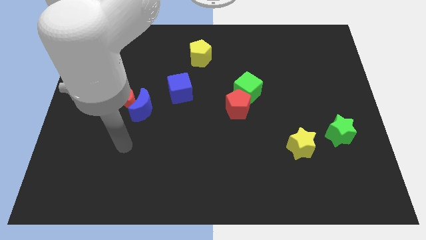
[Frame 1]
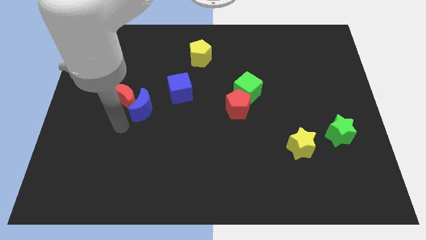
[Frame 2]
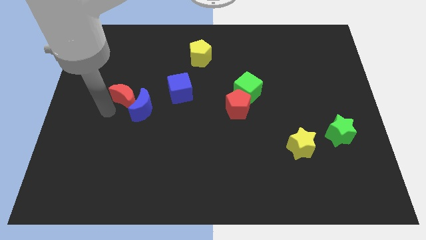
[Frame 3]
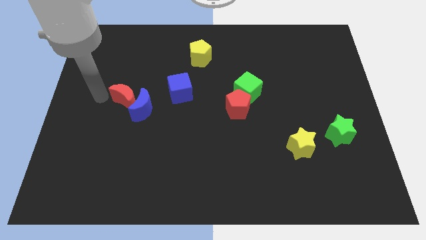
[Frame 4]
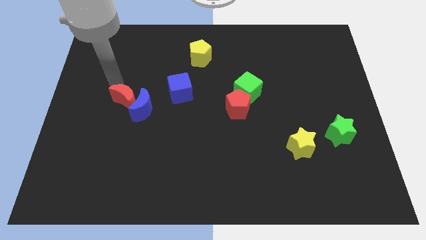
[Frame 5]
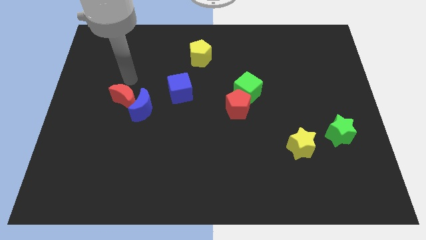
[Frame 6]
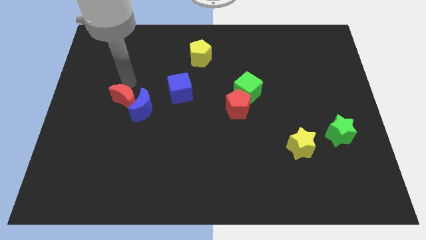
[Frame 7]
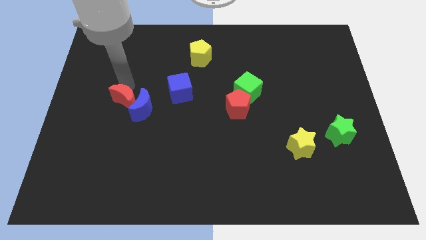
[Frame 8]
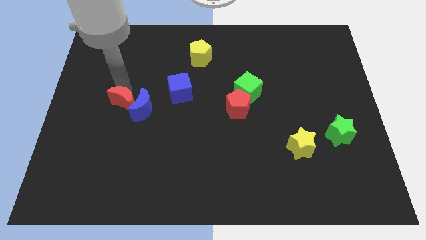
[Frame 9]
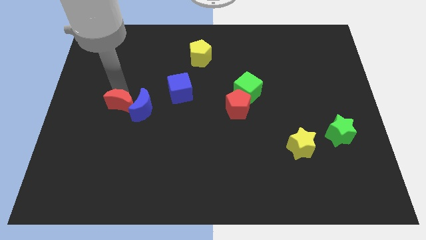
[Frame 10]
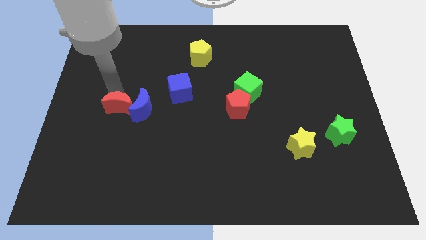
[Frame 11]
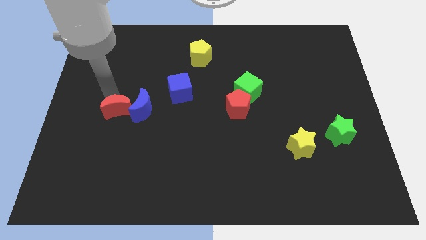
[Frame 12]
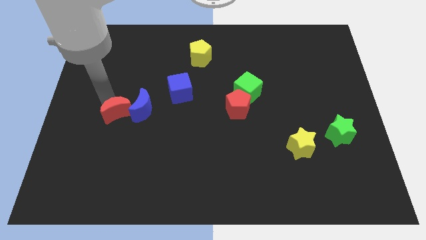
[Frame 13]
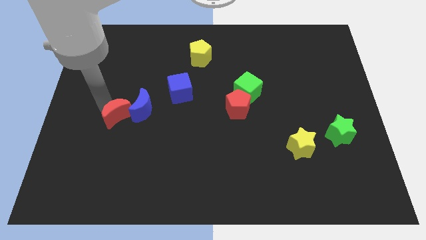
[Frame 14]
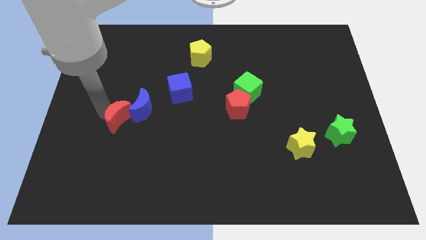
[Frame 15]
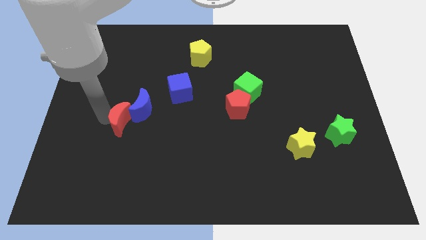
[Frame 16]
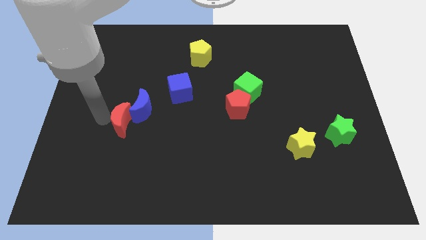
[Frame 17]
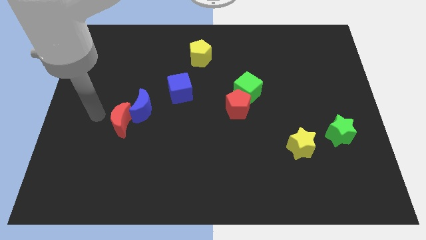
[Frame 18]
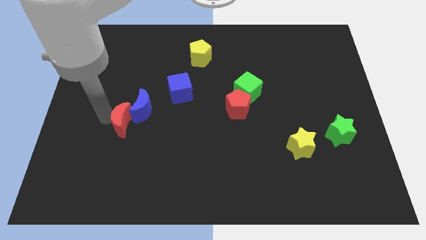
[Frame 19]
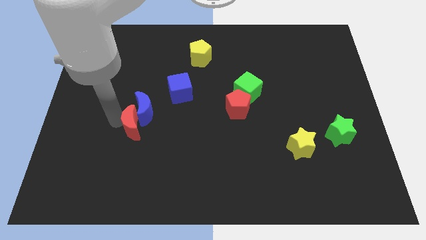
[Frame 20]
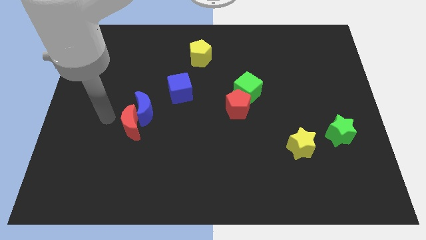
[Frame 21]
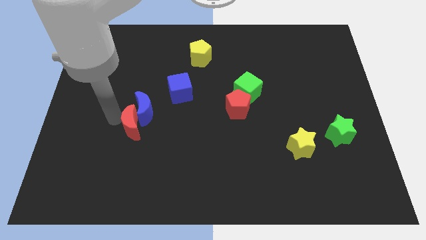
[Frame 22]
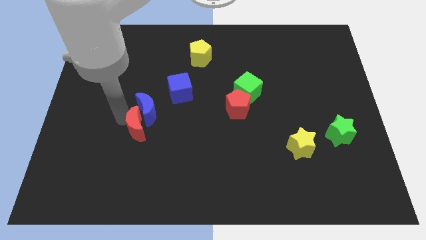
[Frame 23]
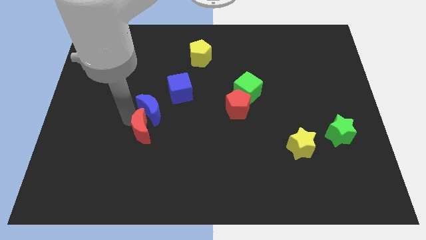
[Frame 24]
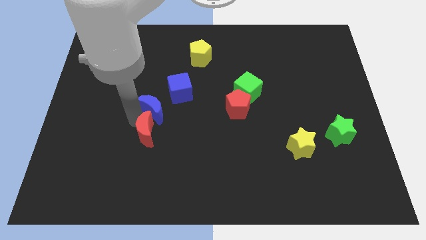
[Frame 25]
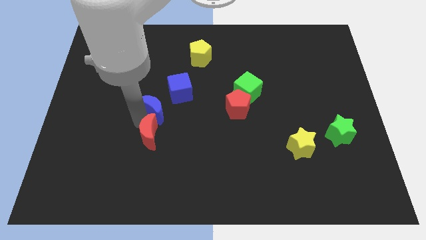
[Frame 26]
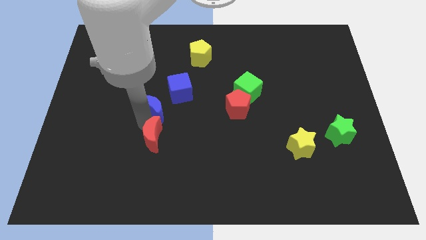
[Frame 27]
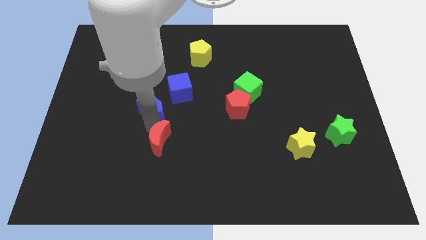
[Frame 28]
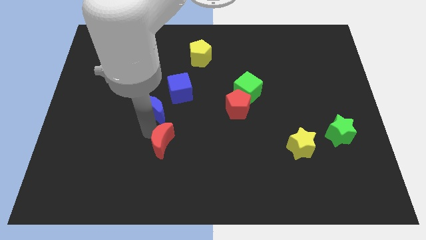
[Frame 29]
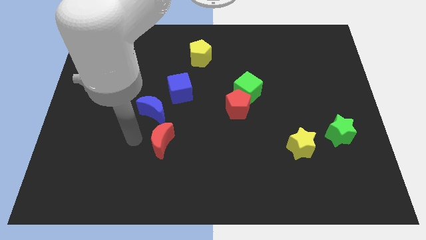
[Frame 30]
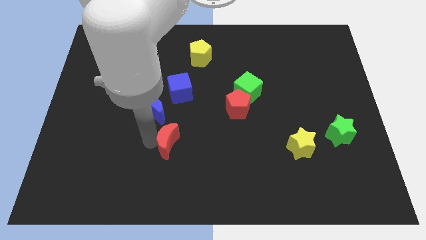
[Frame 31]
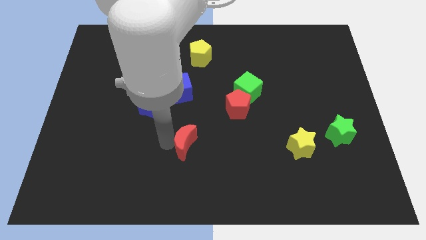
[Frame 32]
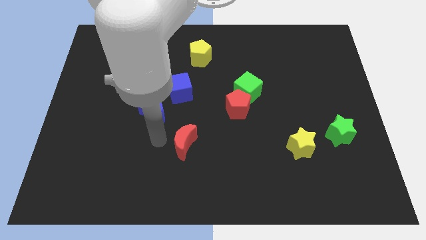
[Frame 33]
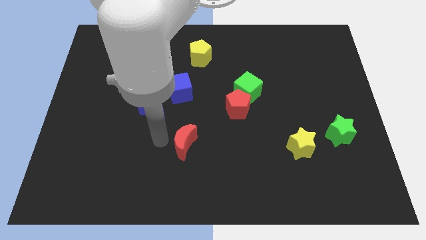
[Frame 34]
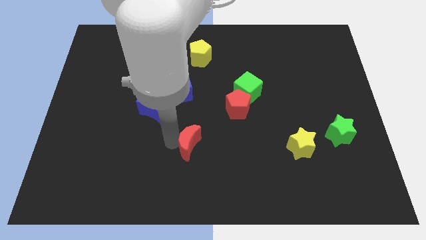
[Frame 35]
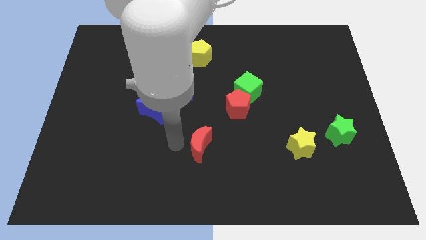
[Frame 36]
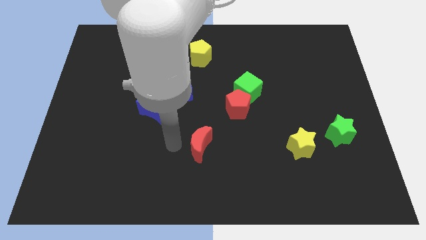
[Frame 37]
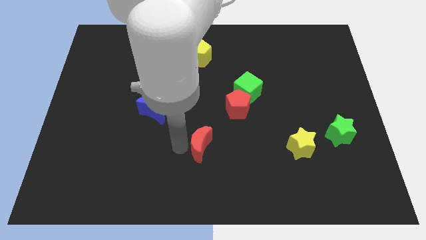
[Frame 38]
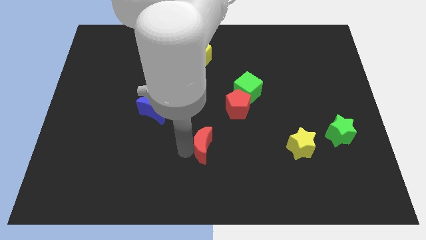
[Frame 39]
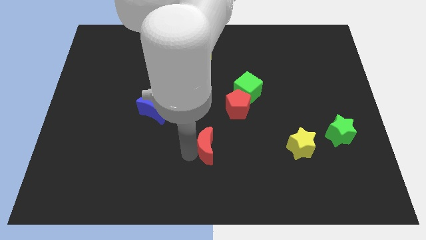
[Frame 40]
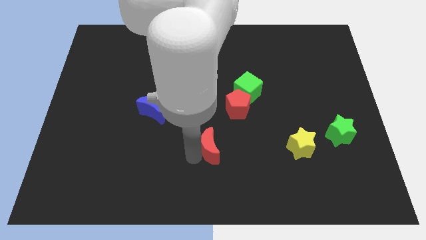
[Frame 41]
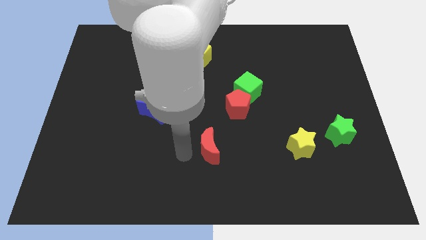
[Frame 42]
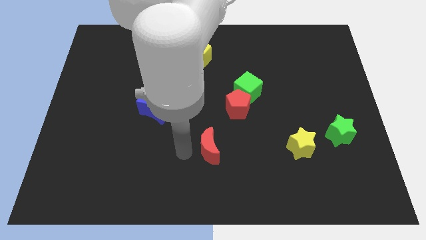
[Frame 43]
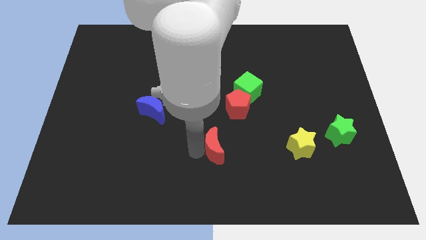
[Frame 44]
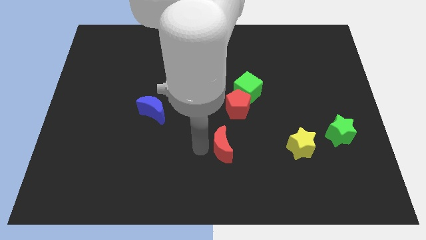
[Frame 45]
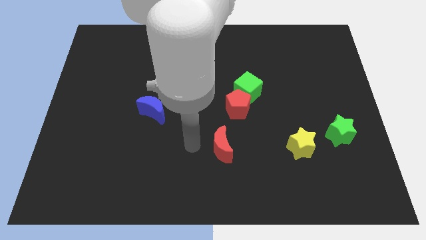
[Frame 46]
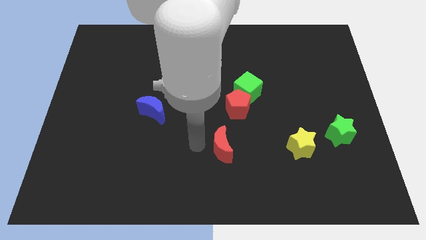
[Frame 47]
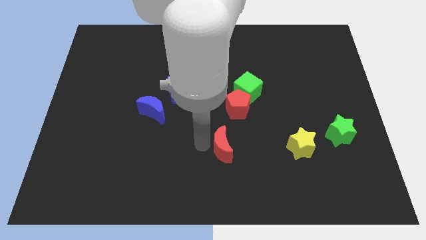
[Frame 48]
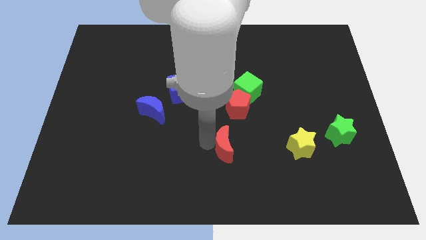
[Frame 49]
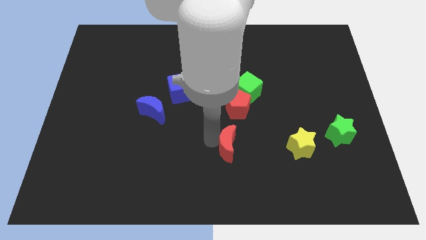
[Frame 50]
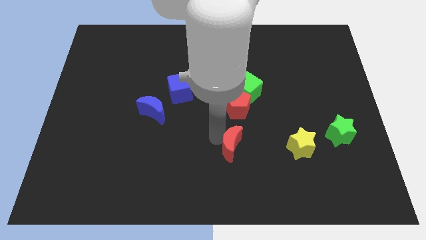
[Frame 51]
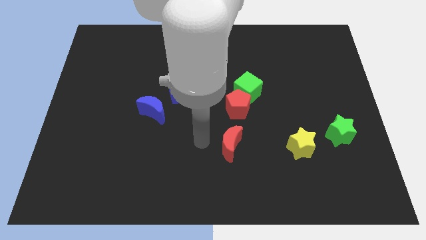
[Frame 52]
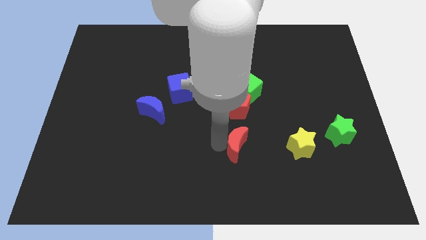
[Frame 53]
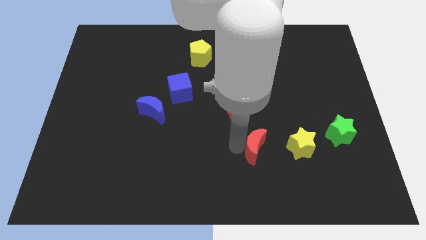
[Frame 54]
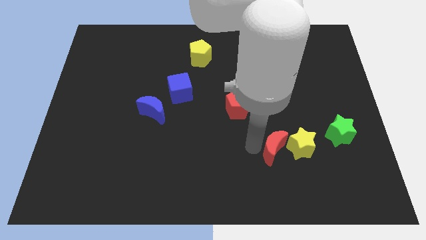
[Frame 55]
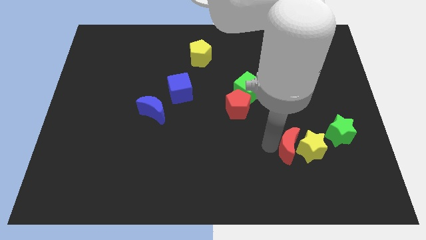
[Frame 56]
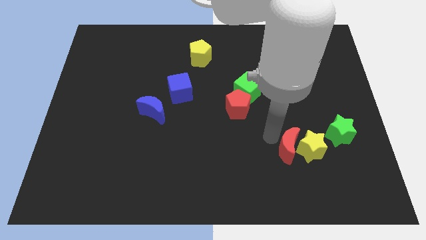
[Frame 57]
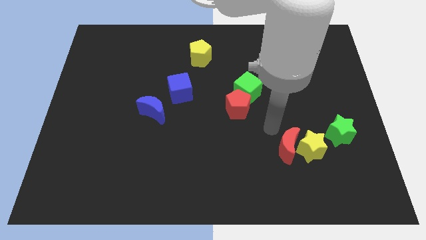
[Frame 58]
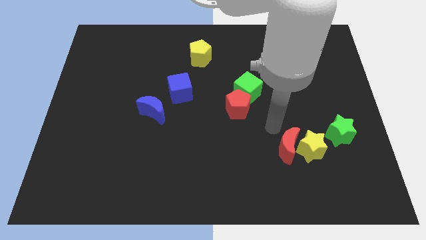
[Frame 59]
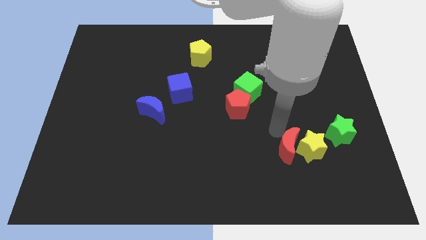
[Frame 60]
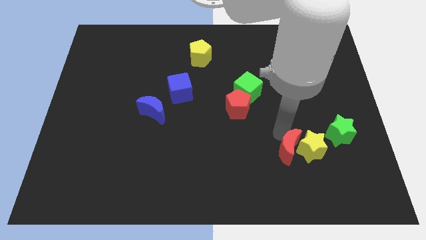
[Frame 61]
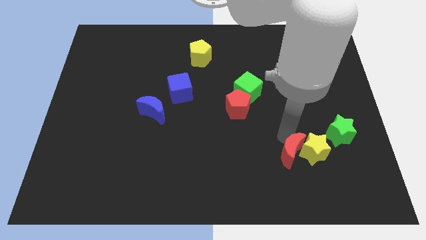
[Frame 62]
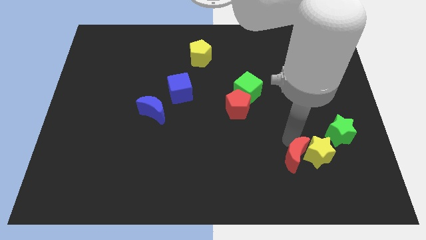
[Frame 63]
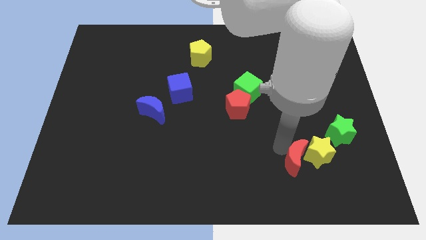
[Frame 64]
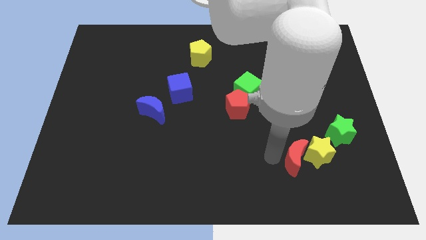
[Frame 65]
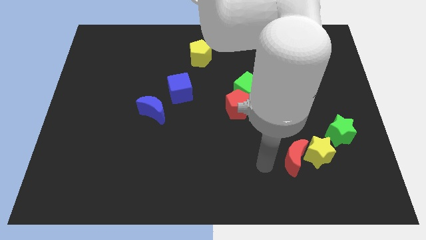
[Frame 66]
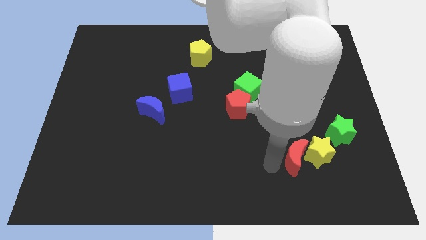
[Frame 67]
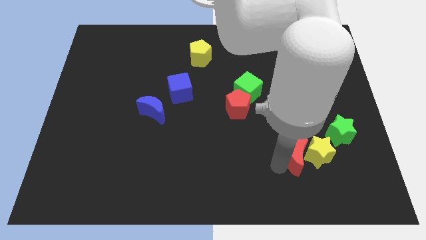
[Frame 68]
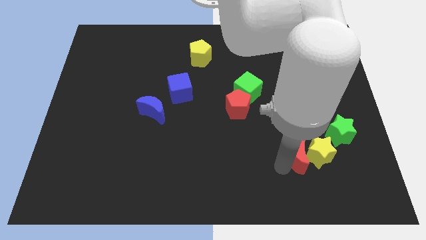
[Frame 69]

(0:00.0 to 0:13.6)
push the red moon to the bottom left side of the green star

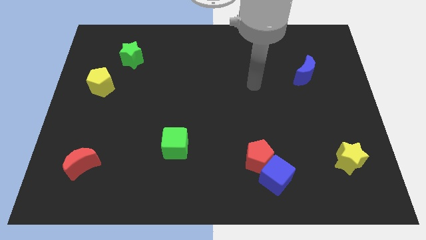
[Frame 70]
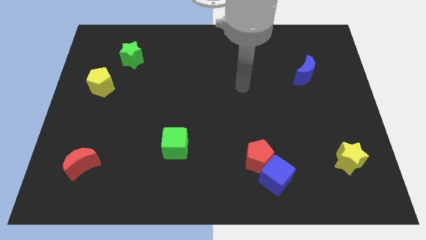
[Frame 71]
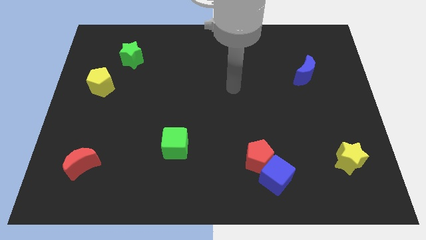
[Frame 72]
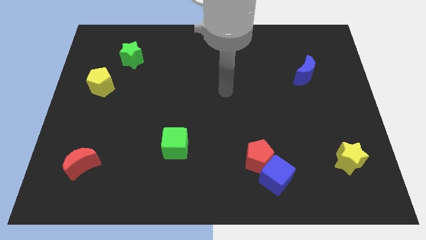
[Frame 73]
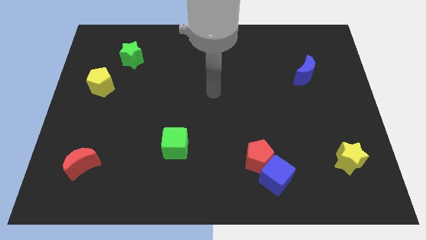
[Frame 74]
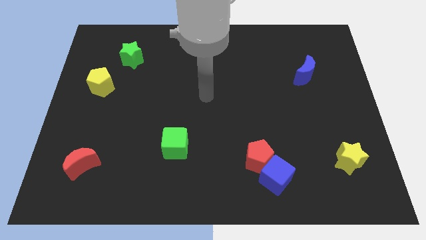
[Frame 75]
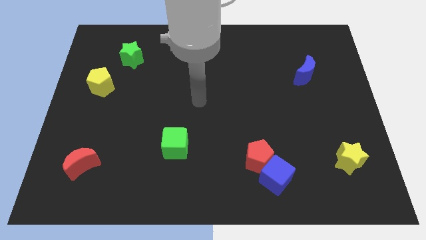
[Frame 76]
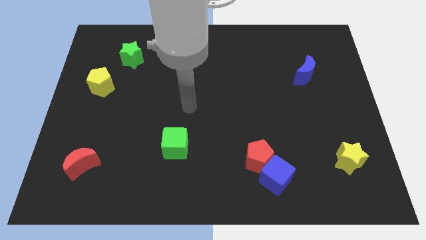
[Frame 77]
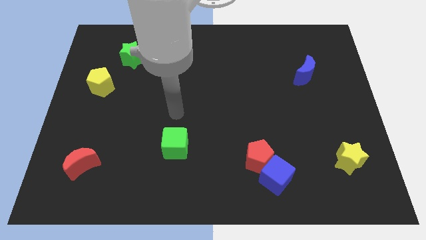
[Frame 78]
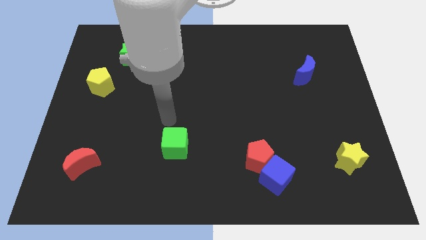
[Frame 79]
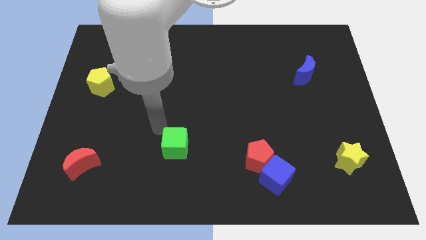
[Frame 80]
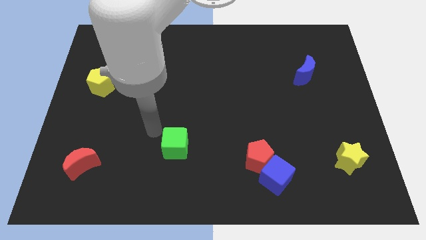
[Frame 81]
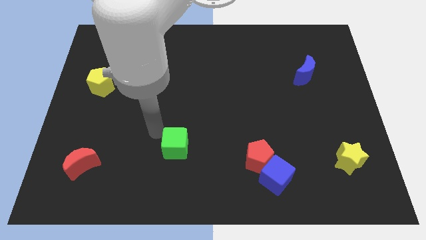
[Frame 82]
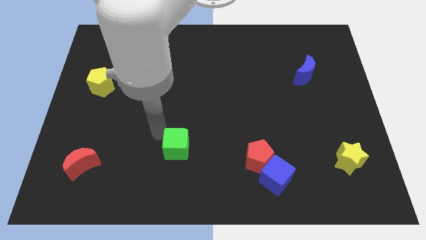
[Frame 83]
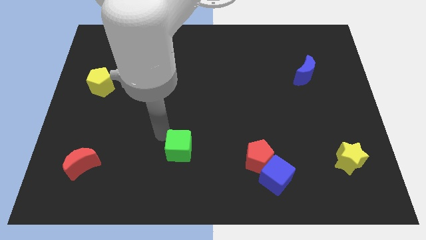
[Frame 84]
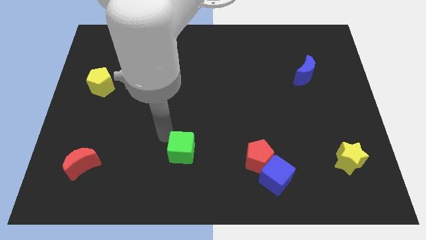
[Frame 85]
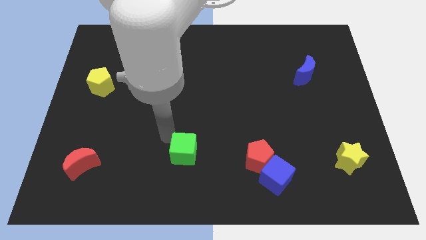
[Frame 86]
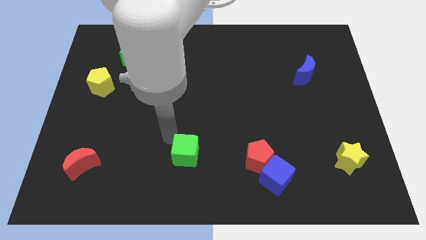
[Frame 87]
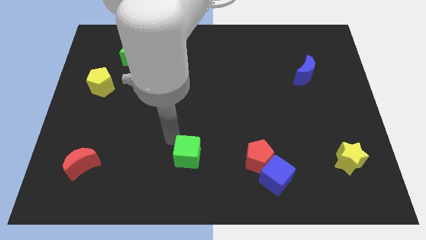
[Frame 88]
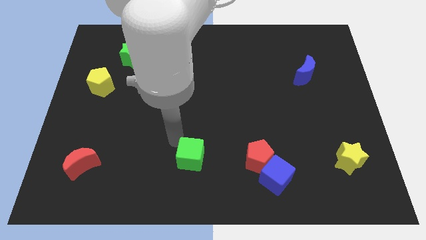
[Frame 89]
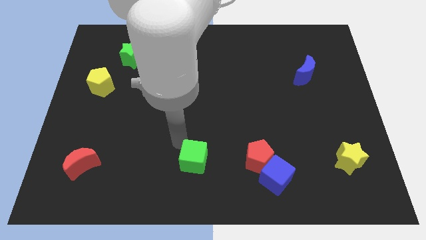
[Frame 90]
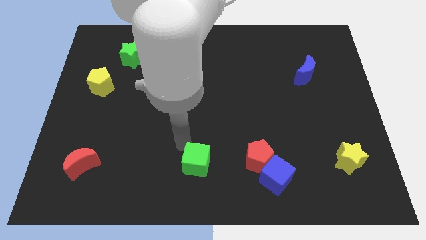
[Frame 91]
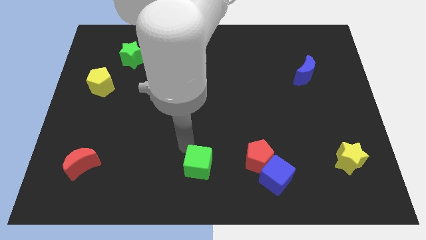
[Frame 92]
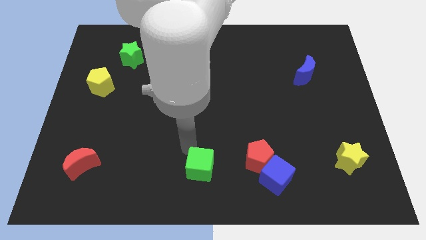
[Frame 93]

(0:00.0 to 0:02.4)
move the green cube left of the blue cube
